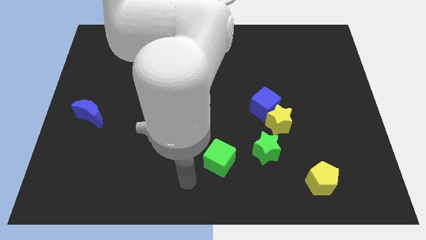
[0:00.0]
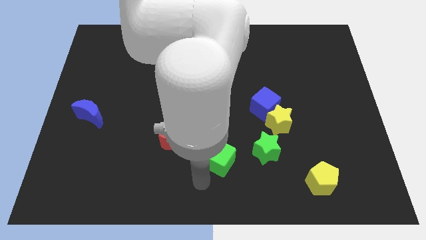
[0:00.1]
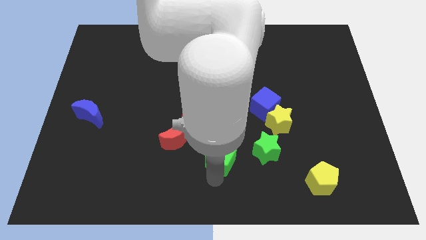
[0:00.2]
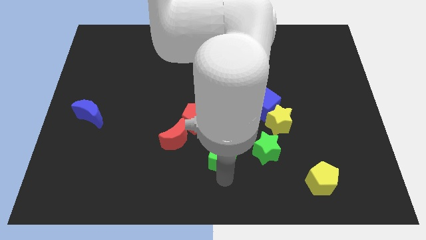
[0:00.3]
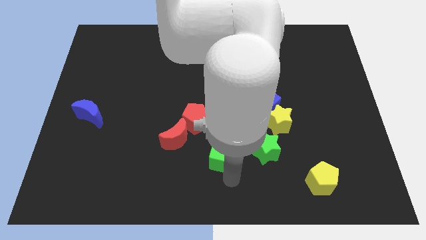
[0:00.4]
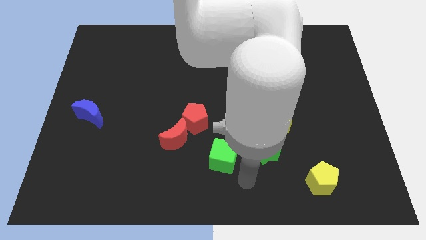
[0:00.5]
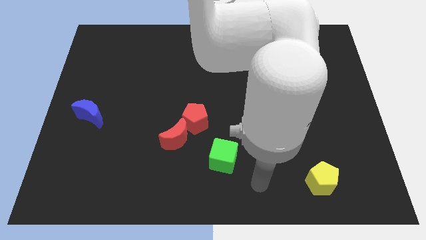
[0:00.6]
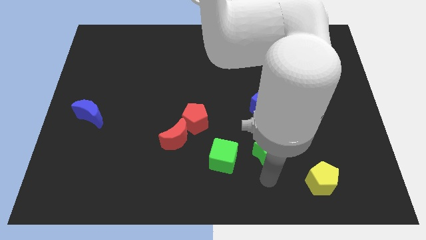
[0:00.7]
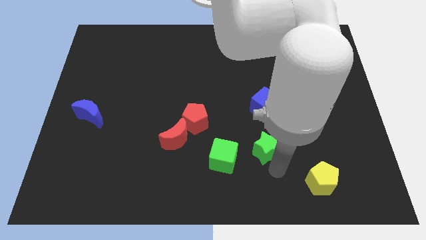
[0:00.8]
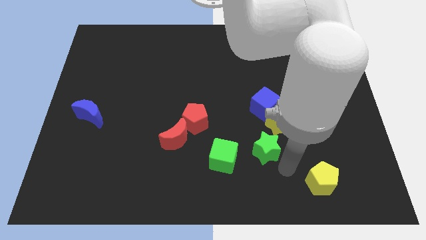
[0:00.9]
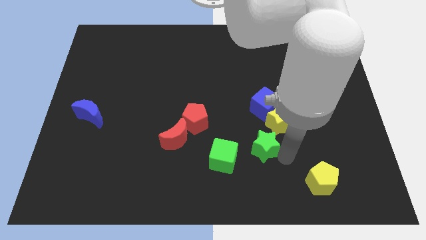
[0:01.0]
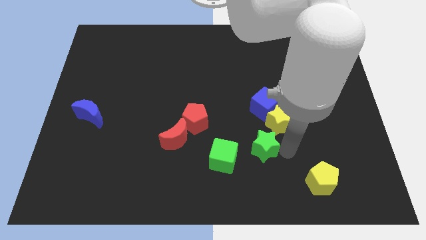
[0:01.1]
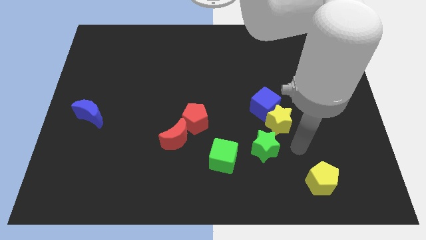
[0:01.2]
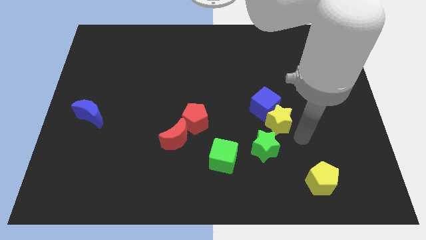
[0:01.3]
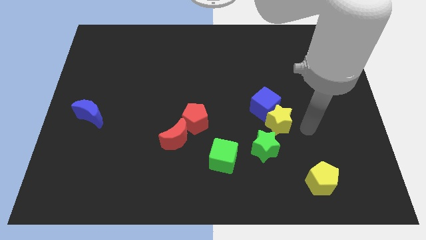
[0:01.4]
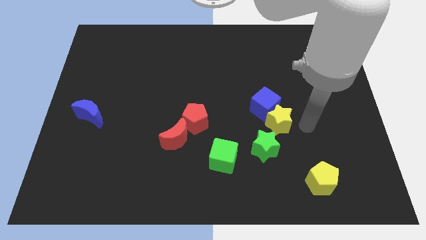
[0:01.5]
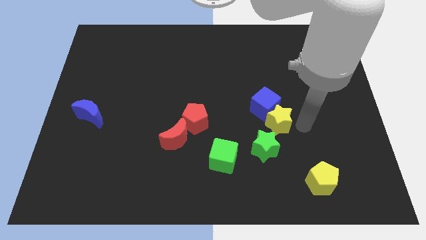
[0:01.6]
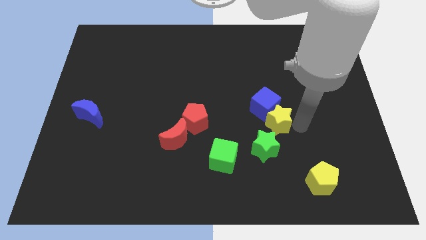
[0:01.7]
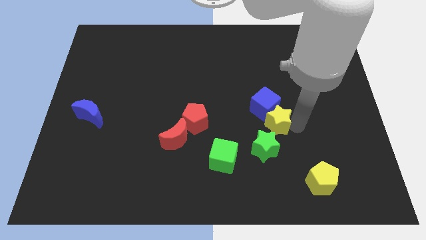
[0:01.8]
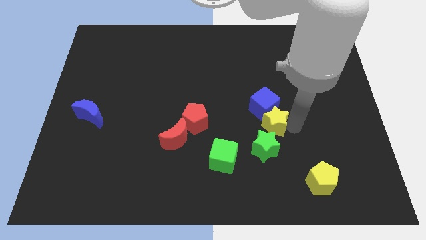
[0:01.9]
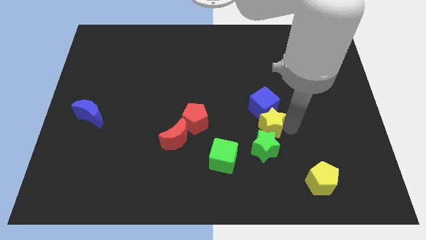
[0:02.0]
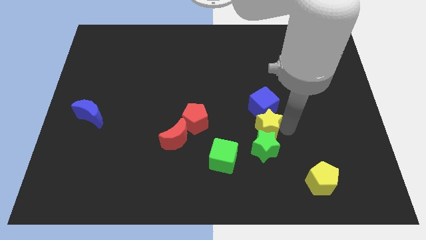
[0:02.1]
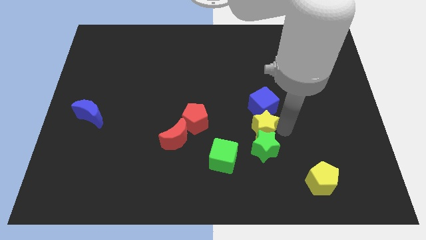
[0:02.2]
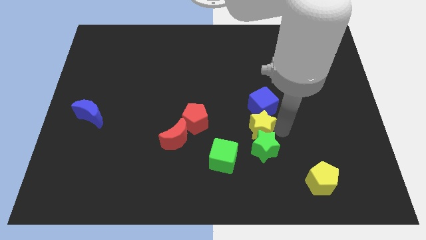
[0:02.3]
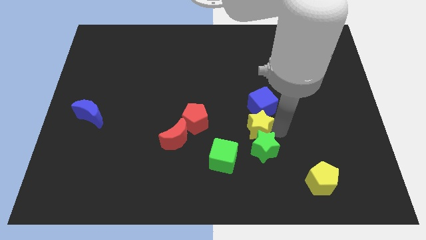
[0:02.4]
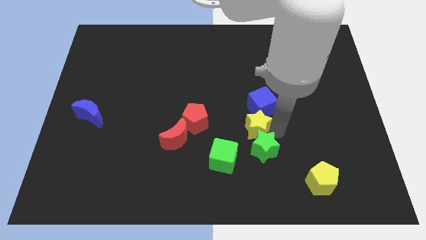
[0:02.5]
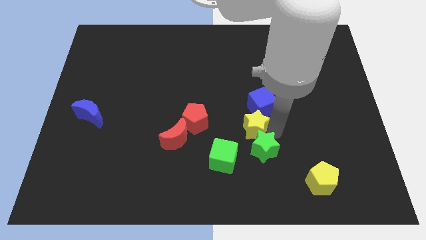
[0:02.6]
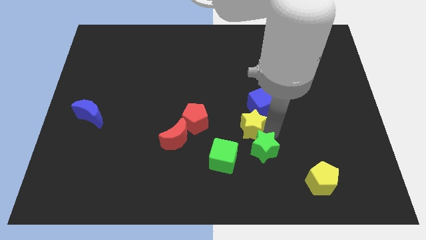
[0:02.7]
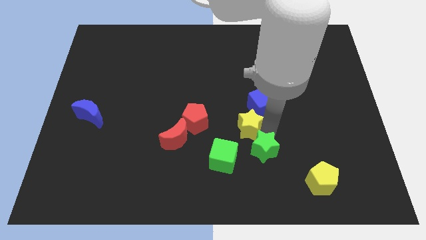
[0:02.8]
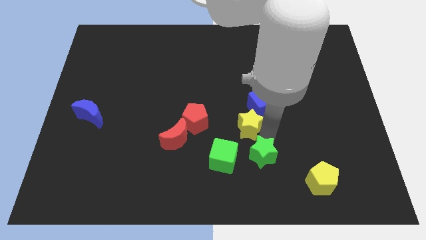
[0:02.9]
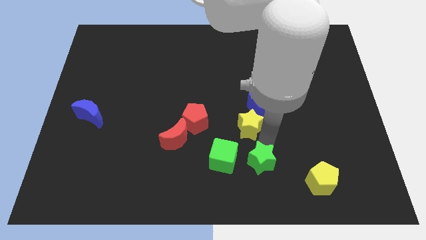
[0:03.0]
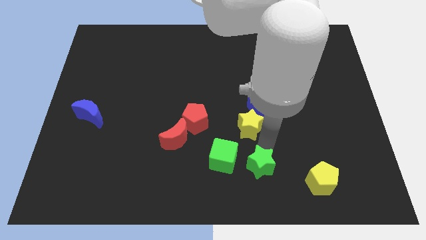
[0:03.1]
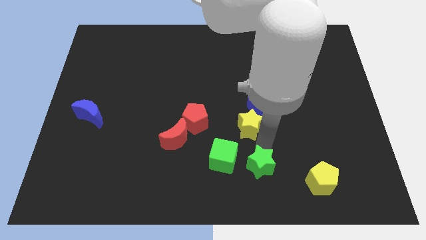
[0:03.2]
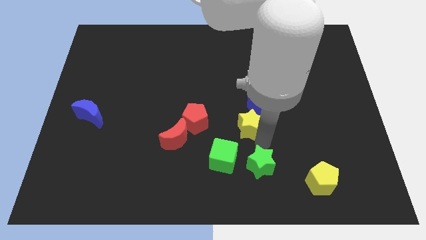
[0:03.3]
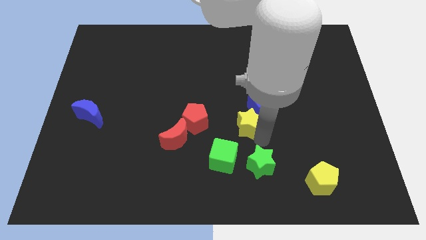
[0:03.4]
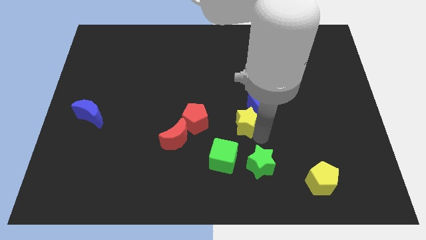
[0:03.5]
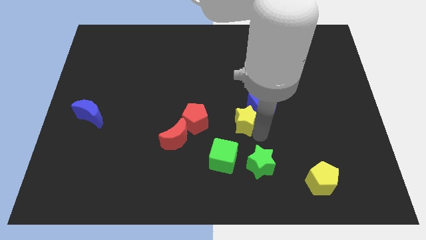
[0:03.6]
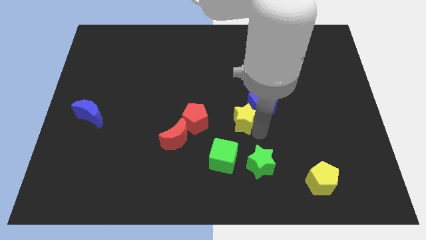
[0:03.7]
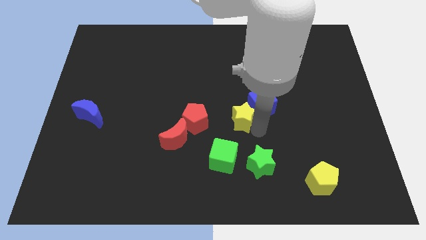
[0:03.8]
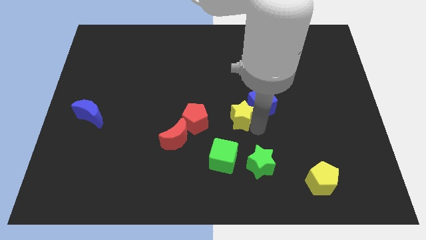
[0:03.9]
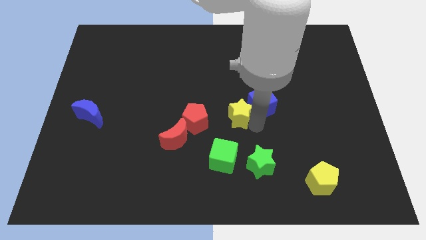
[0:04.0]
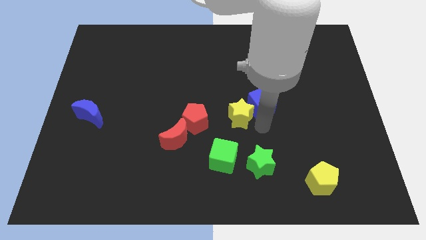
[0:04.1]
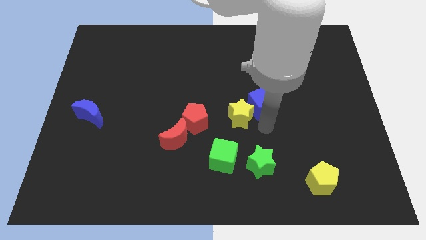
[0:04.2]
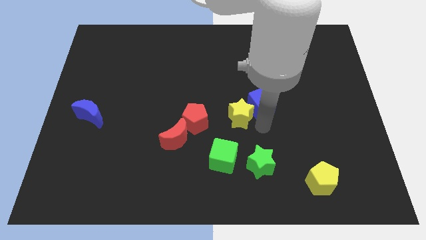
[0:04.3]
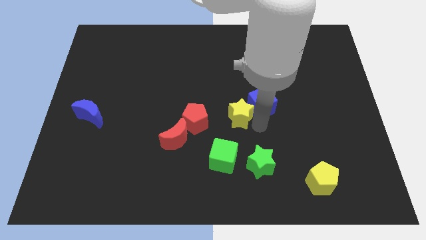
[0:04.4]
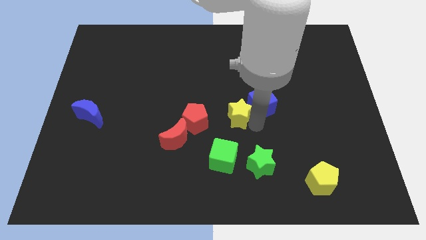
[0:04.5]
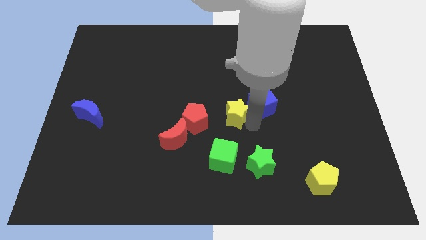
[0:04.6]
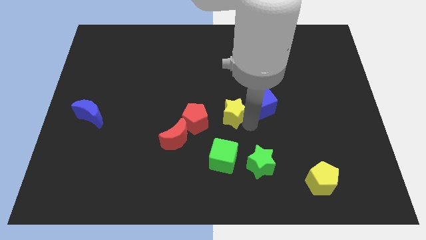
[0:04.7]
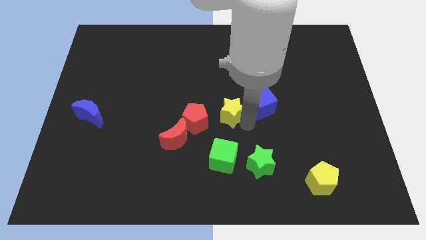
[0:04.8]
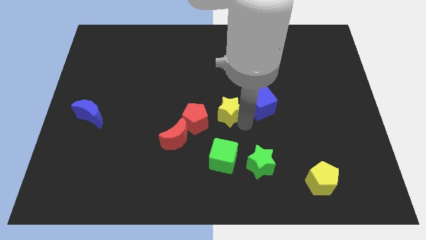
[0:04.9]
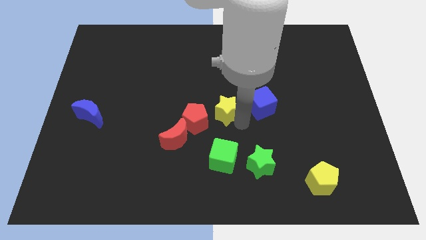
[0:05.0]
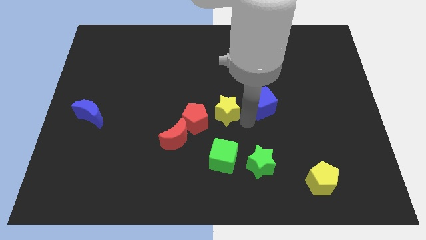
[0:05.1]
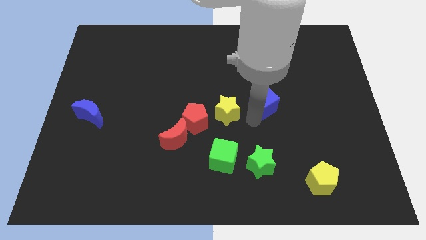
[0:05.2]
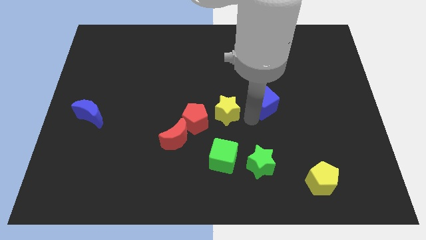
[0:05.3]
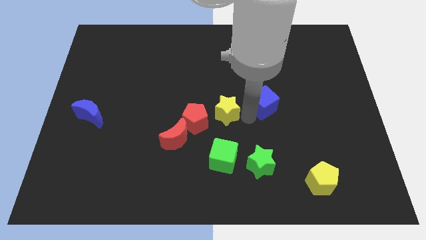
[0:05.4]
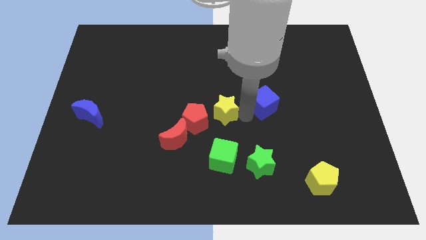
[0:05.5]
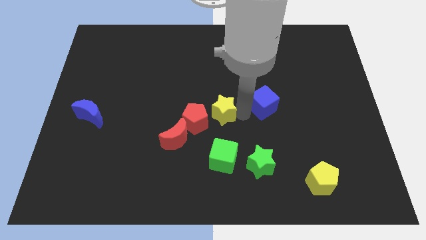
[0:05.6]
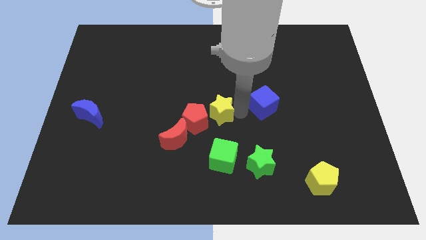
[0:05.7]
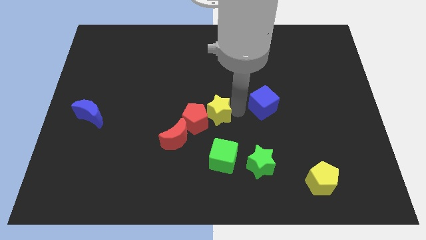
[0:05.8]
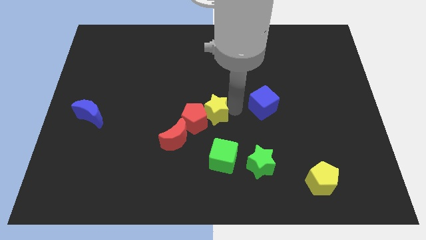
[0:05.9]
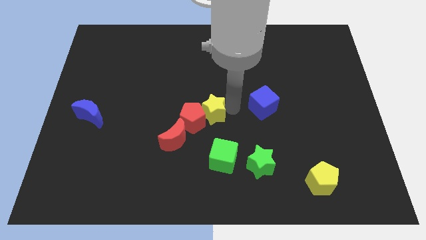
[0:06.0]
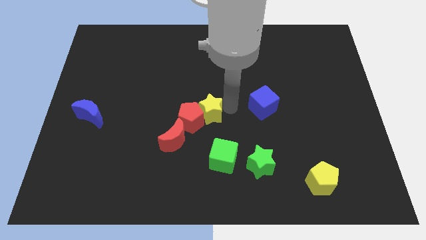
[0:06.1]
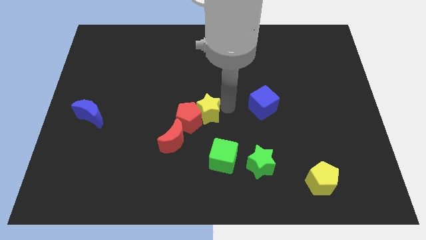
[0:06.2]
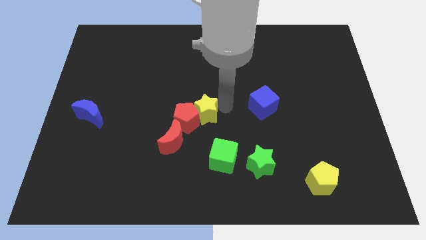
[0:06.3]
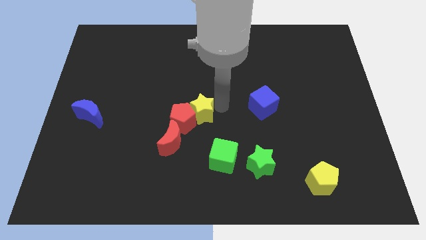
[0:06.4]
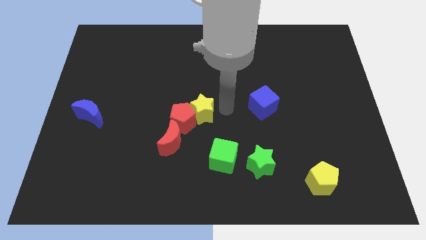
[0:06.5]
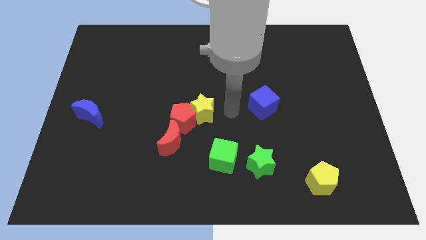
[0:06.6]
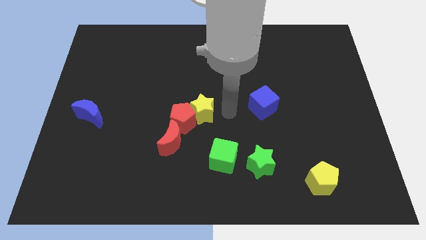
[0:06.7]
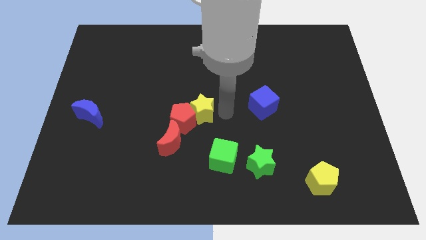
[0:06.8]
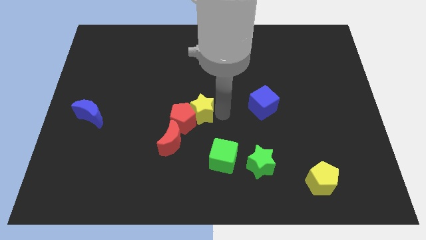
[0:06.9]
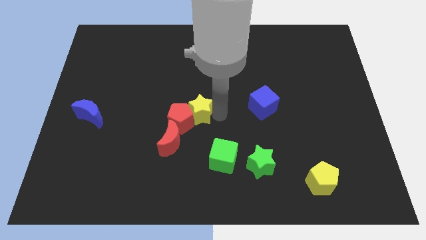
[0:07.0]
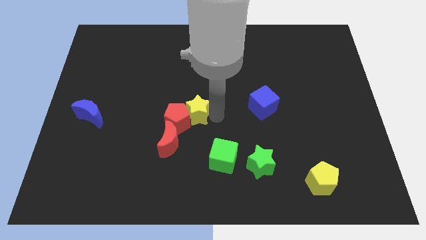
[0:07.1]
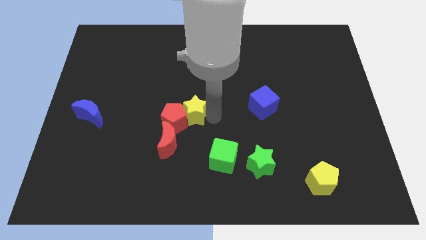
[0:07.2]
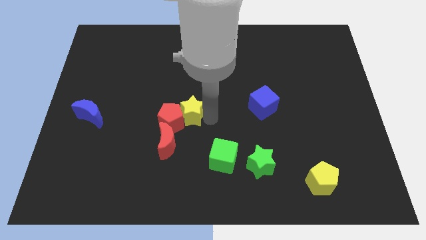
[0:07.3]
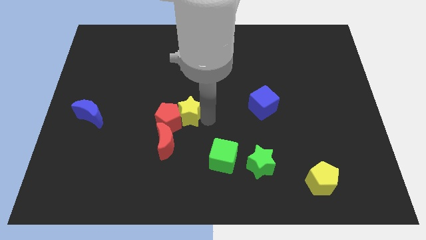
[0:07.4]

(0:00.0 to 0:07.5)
push the yellow star to the left

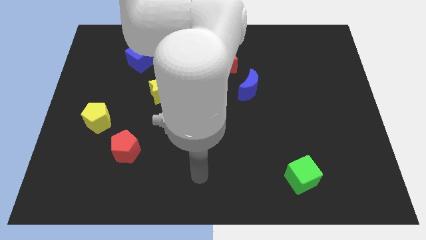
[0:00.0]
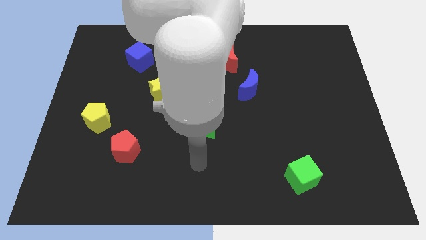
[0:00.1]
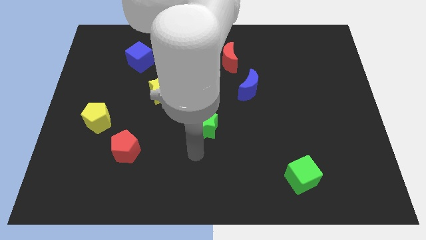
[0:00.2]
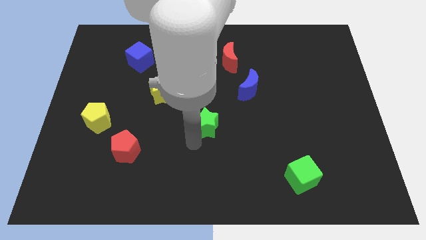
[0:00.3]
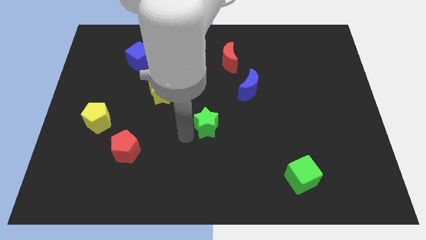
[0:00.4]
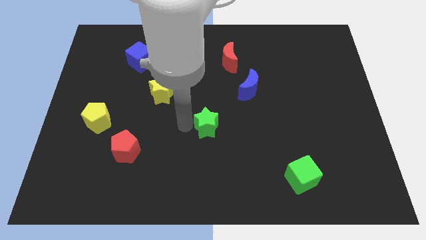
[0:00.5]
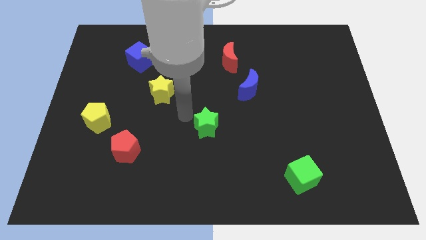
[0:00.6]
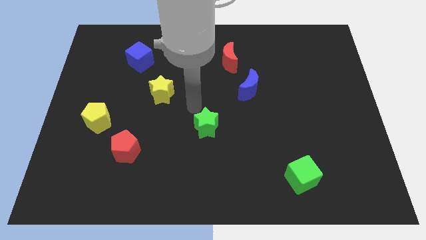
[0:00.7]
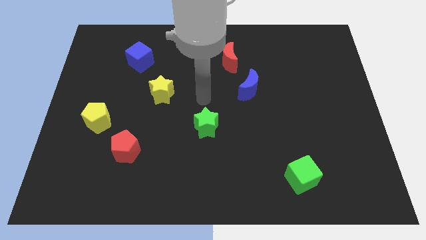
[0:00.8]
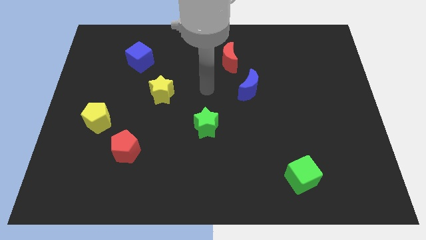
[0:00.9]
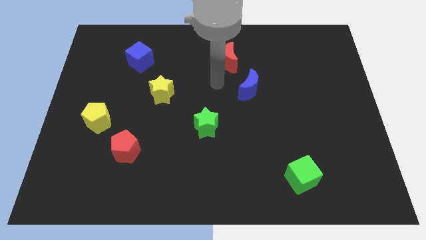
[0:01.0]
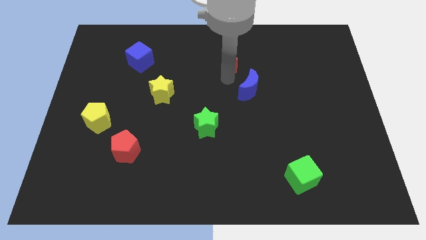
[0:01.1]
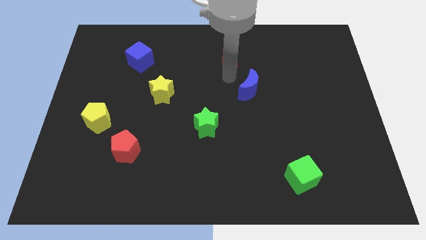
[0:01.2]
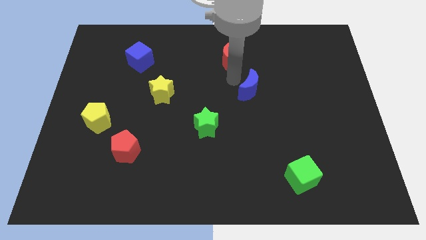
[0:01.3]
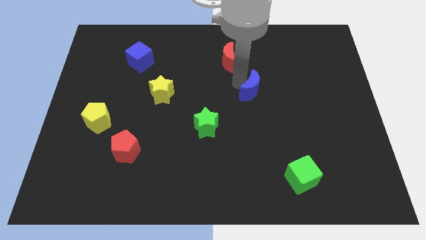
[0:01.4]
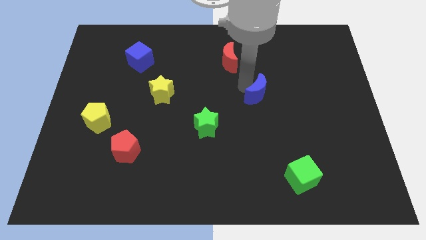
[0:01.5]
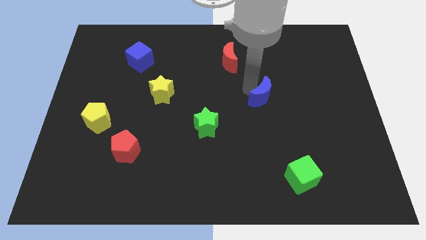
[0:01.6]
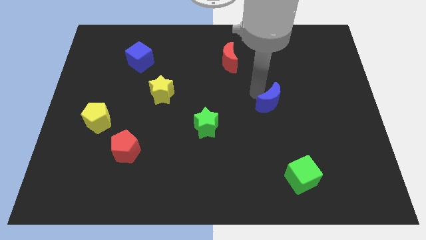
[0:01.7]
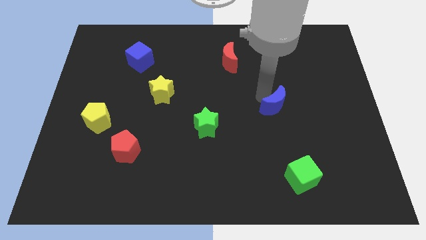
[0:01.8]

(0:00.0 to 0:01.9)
slightly slide the blue moon downwards and right diagonally
